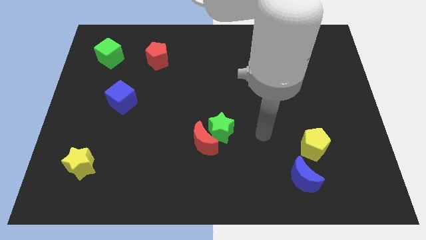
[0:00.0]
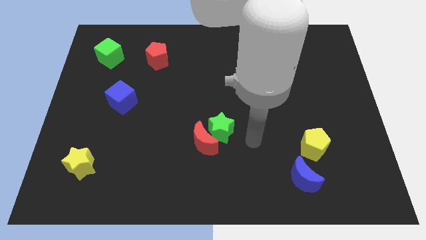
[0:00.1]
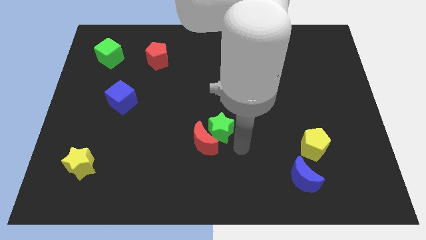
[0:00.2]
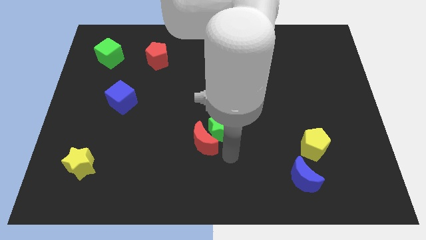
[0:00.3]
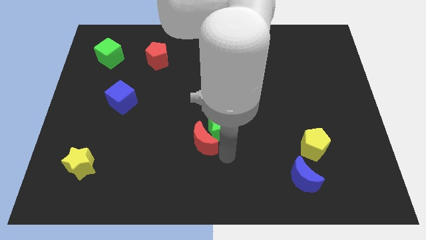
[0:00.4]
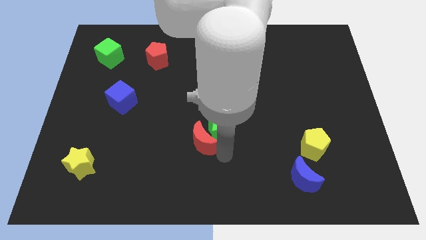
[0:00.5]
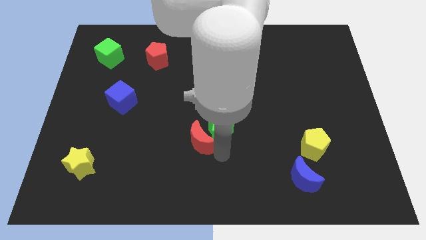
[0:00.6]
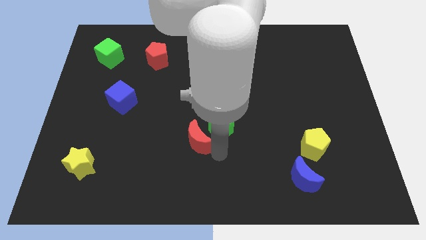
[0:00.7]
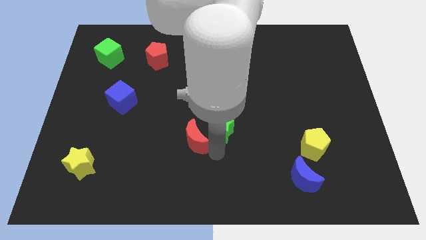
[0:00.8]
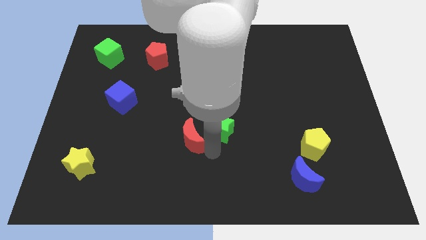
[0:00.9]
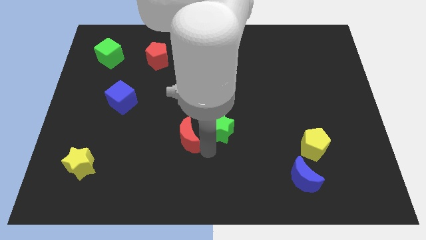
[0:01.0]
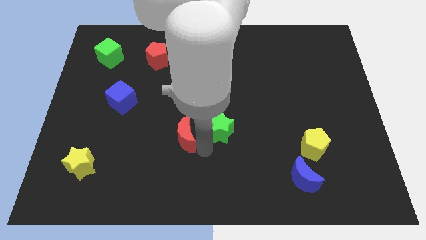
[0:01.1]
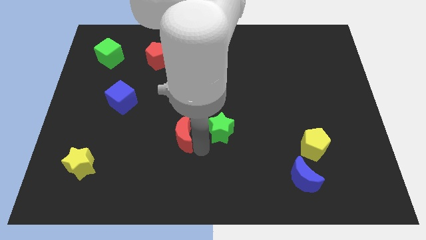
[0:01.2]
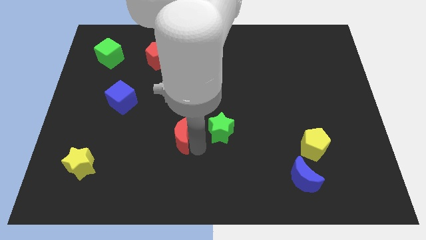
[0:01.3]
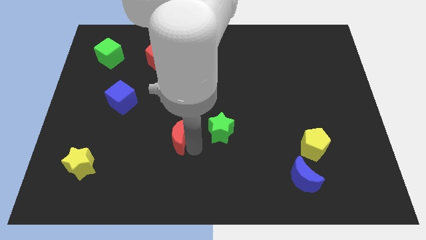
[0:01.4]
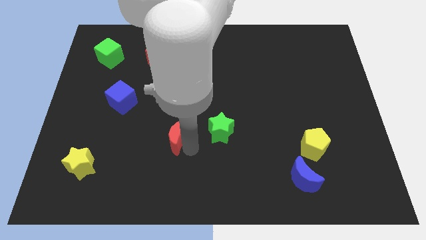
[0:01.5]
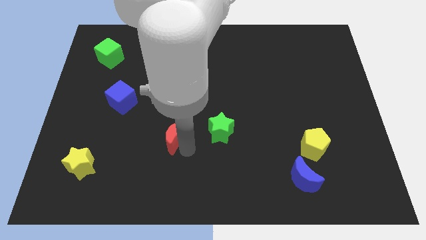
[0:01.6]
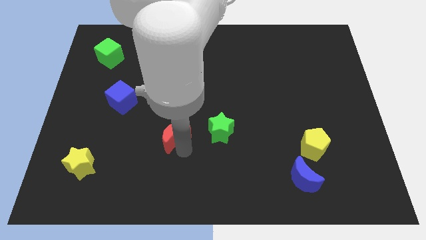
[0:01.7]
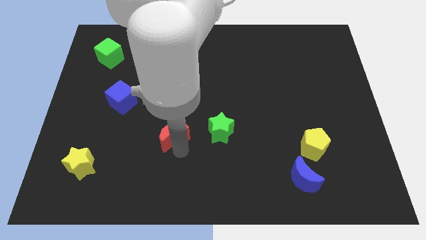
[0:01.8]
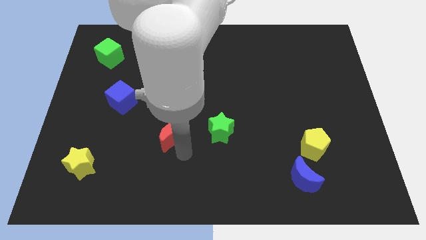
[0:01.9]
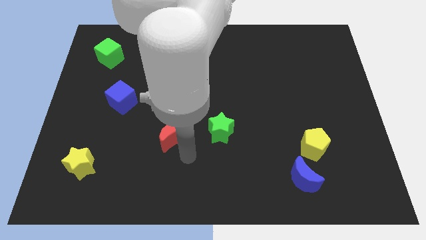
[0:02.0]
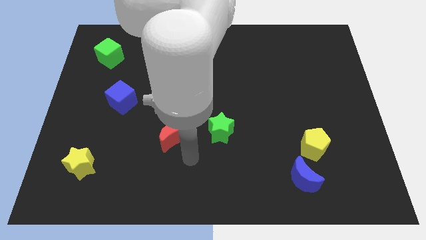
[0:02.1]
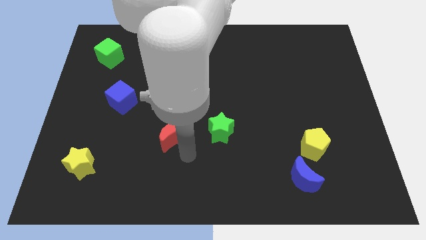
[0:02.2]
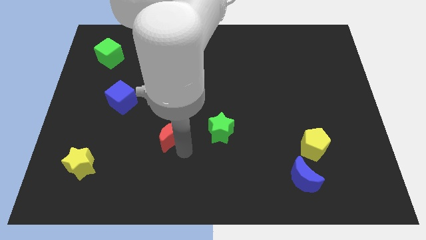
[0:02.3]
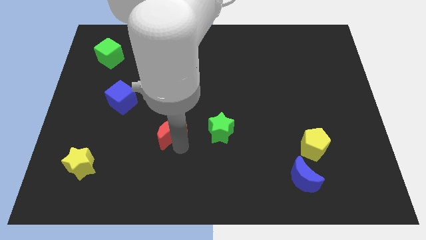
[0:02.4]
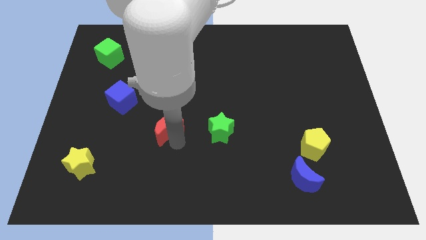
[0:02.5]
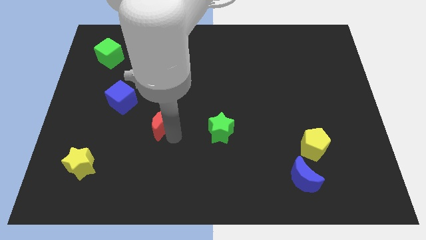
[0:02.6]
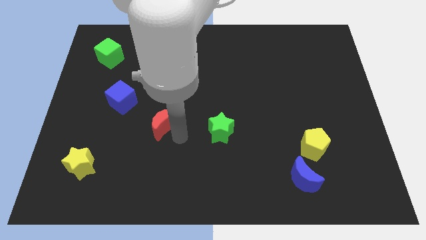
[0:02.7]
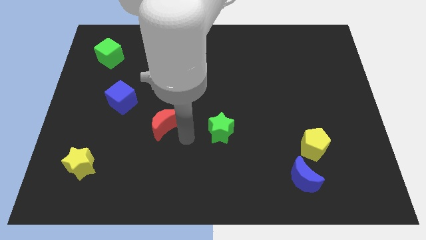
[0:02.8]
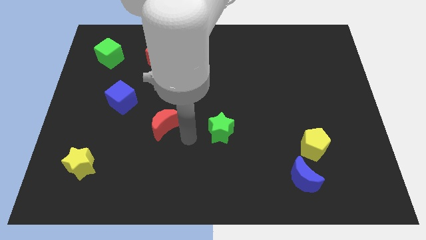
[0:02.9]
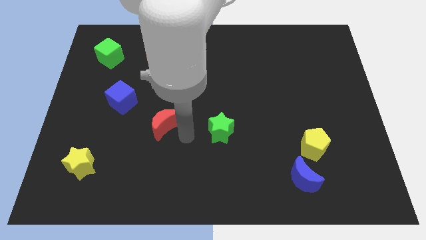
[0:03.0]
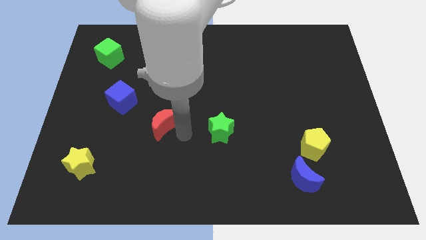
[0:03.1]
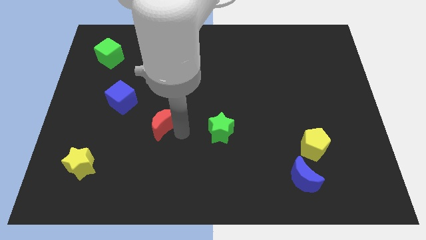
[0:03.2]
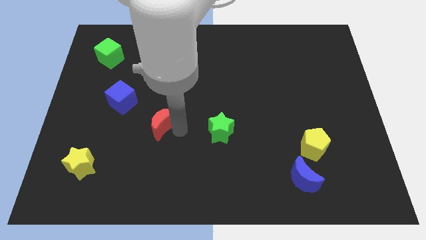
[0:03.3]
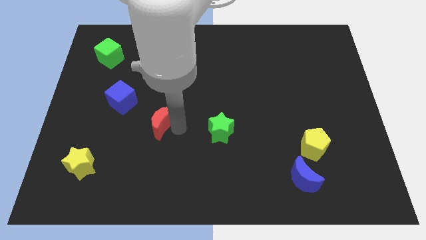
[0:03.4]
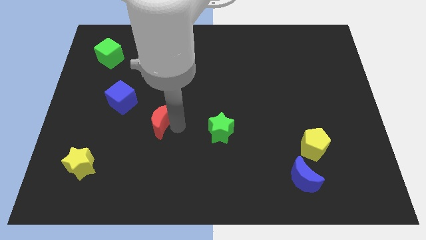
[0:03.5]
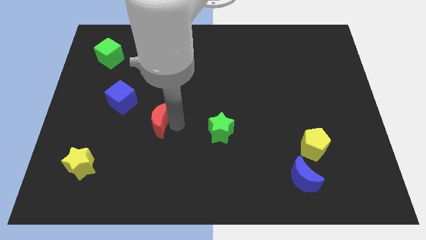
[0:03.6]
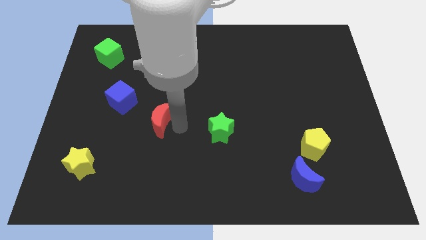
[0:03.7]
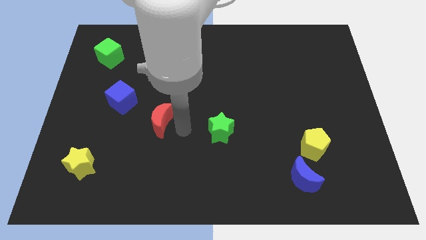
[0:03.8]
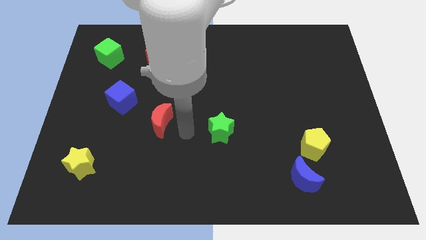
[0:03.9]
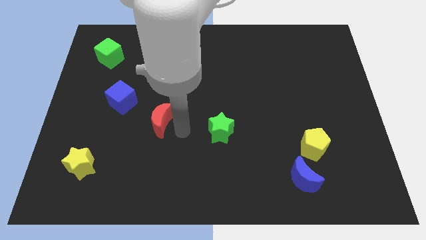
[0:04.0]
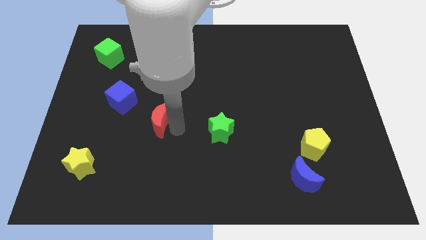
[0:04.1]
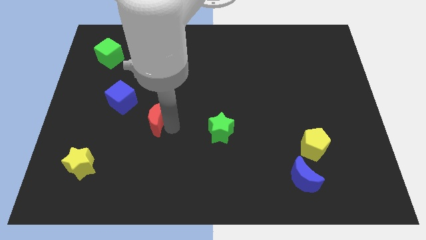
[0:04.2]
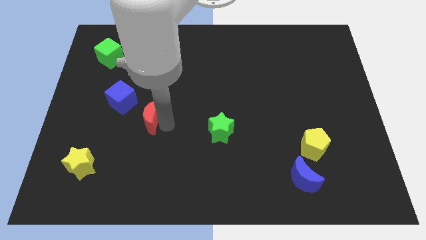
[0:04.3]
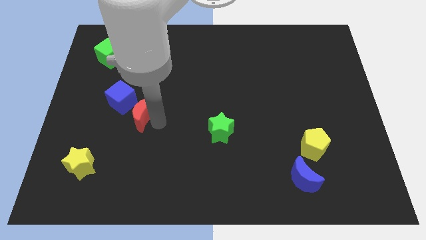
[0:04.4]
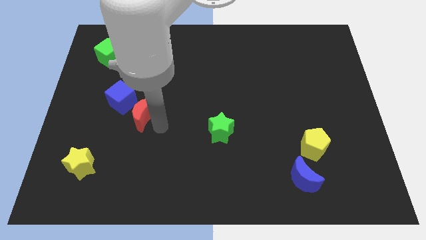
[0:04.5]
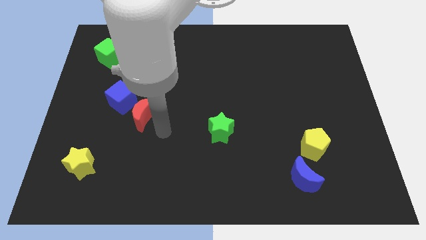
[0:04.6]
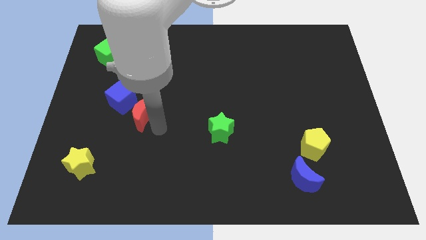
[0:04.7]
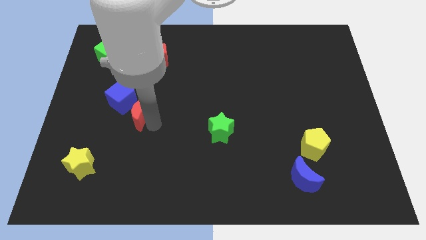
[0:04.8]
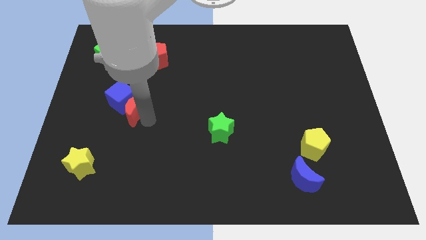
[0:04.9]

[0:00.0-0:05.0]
put the red moon close to the blue cube

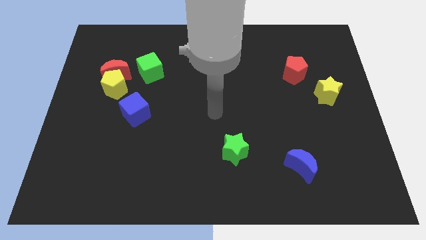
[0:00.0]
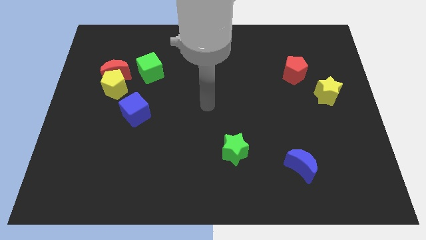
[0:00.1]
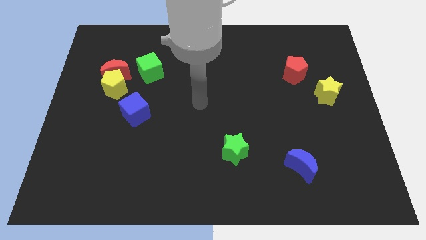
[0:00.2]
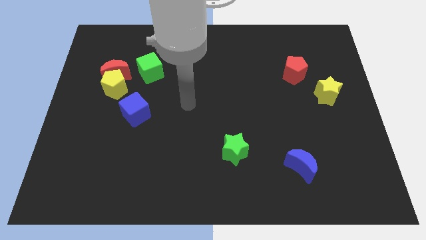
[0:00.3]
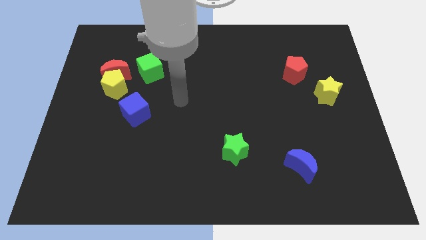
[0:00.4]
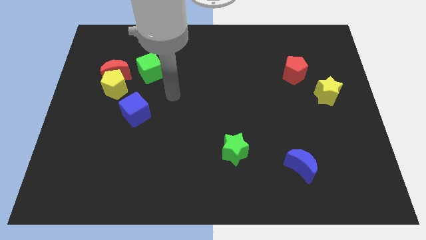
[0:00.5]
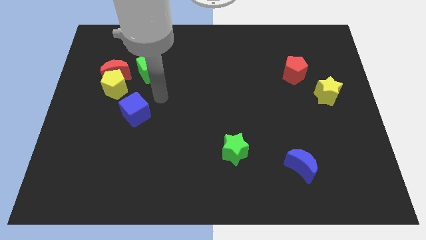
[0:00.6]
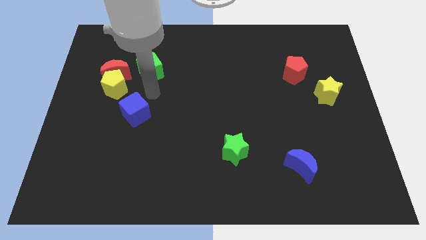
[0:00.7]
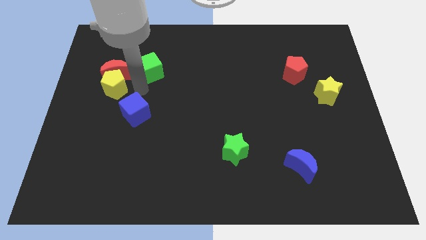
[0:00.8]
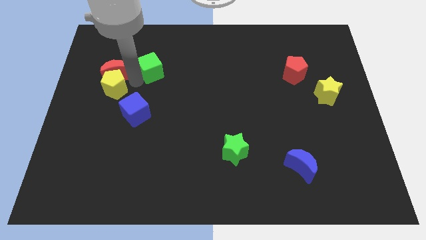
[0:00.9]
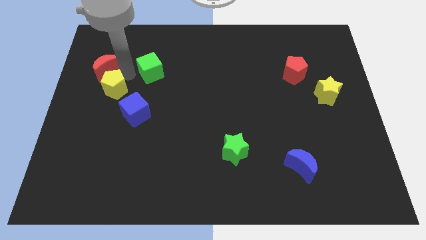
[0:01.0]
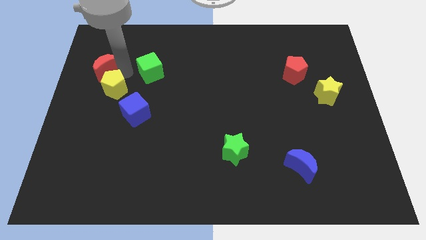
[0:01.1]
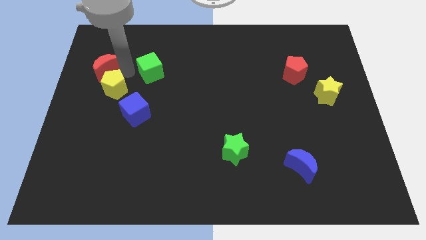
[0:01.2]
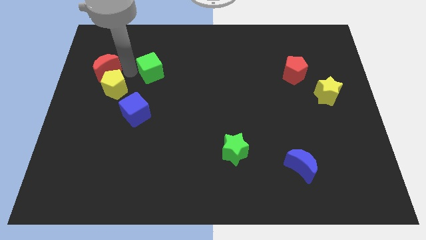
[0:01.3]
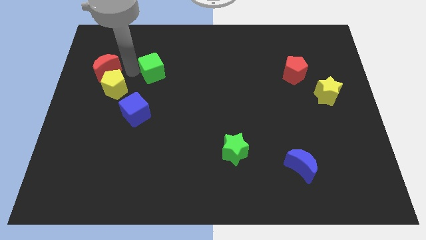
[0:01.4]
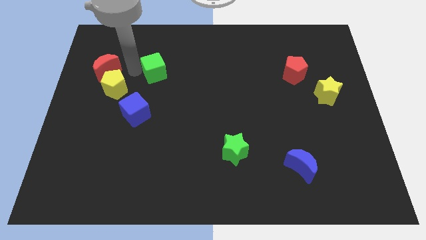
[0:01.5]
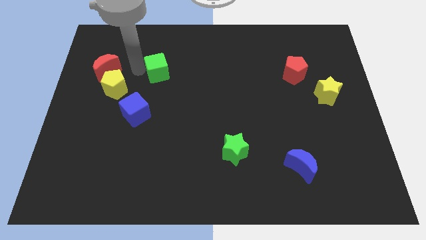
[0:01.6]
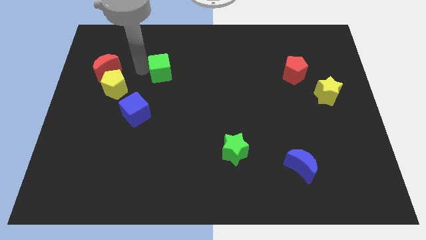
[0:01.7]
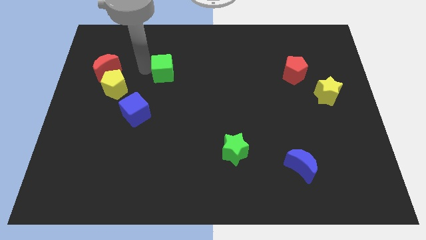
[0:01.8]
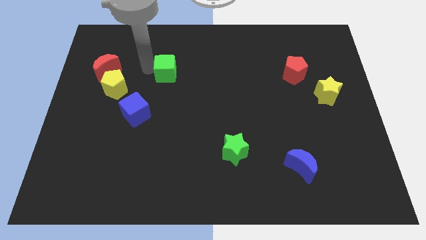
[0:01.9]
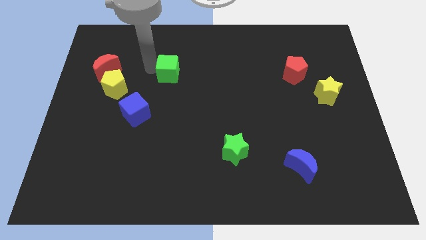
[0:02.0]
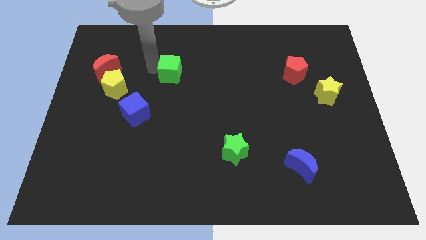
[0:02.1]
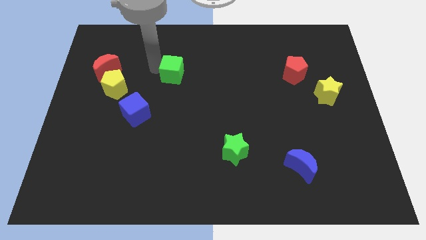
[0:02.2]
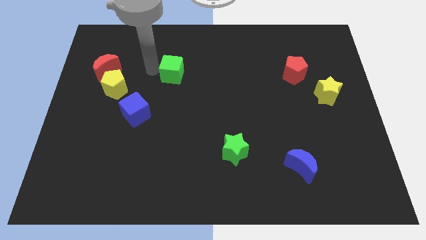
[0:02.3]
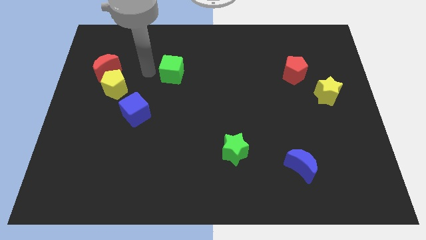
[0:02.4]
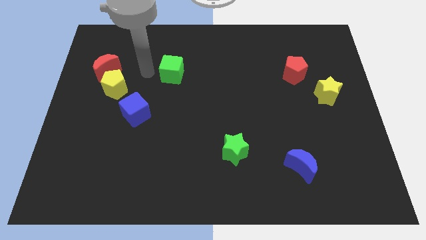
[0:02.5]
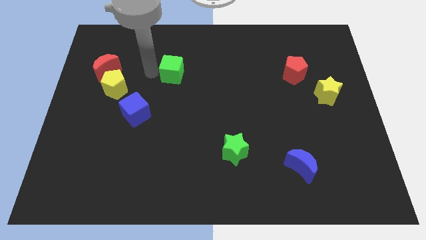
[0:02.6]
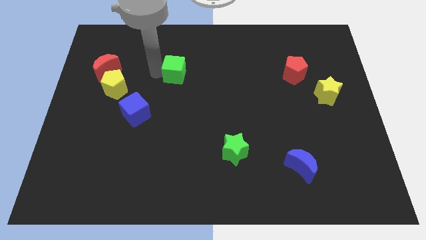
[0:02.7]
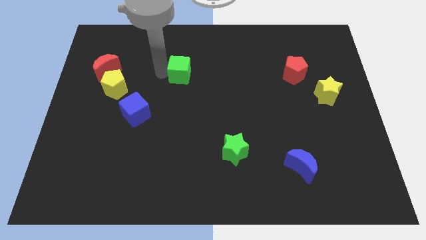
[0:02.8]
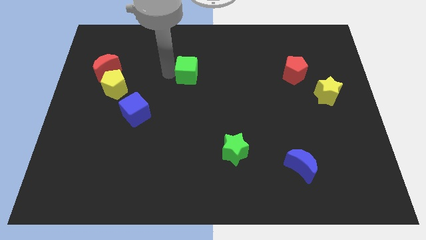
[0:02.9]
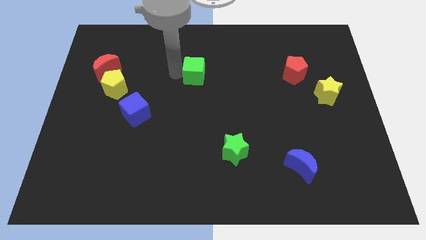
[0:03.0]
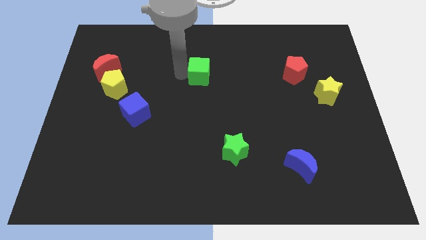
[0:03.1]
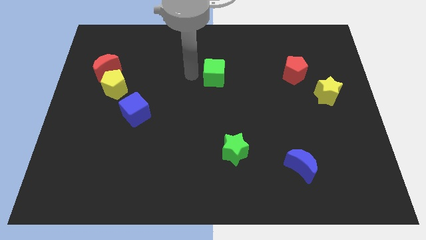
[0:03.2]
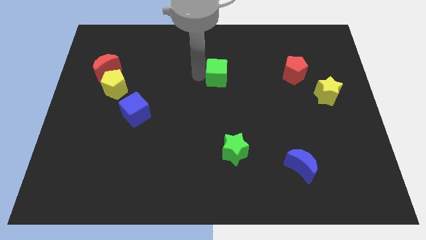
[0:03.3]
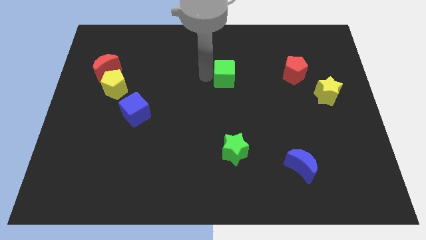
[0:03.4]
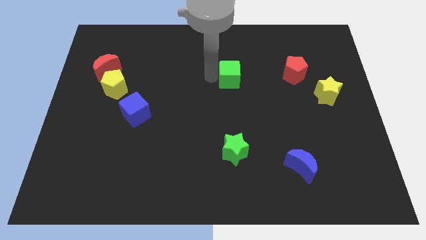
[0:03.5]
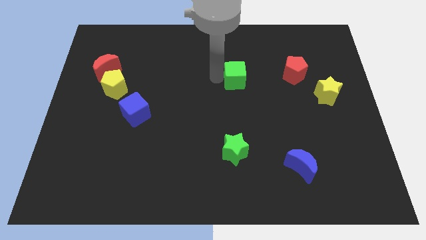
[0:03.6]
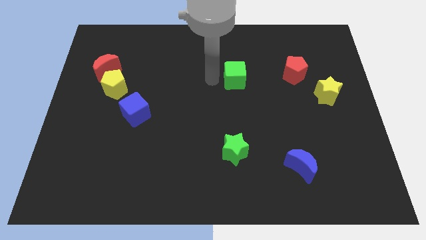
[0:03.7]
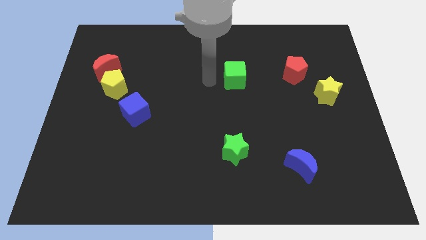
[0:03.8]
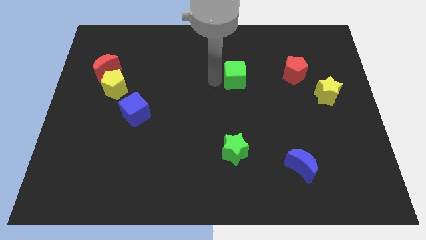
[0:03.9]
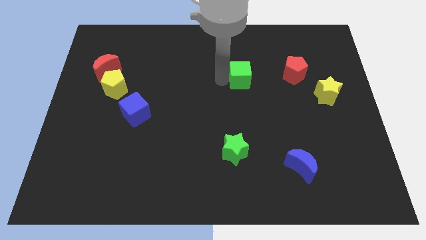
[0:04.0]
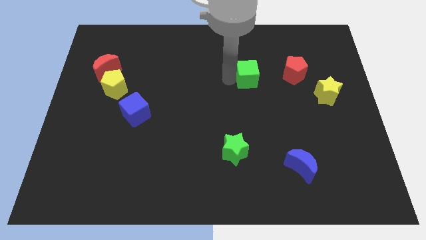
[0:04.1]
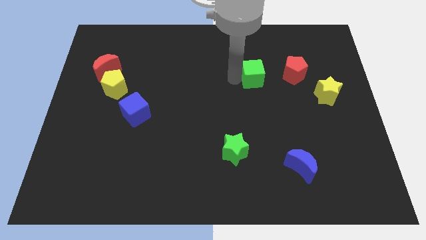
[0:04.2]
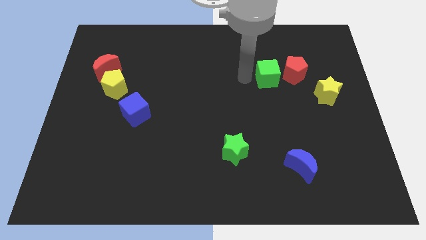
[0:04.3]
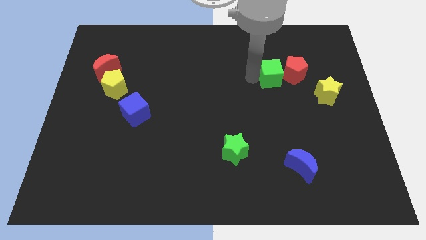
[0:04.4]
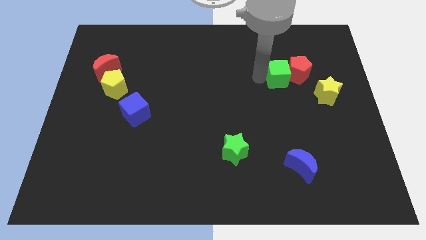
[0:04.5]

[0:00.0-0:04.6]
slide the green cube next to the red pentagon
